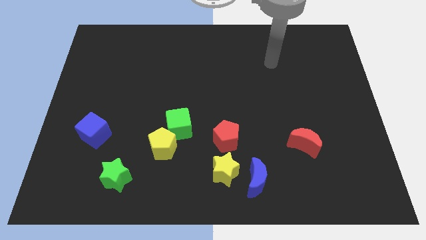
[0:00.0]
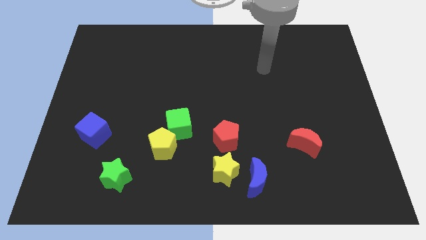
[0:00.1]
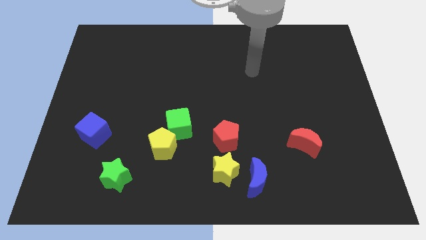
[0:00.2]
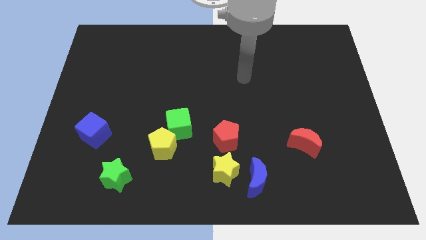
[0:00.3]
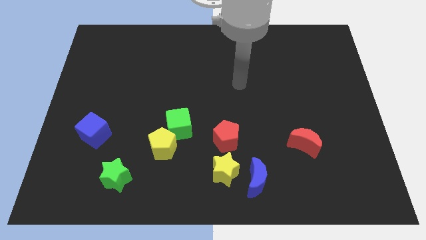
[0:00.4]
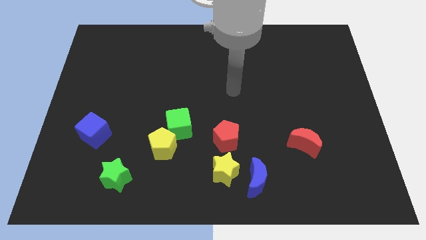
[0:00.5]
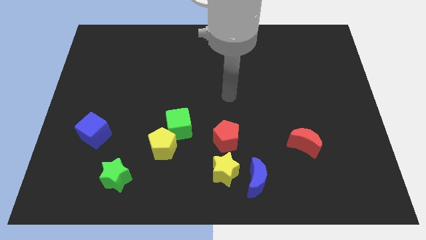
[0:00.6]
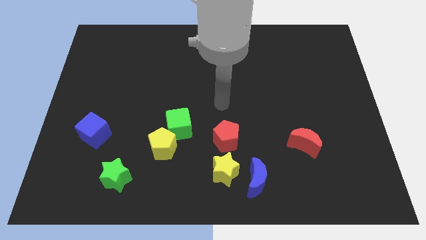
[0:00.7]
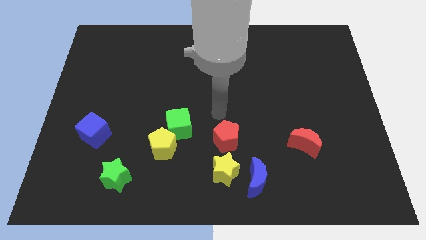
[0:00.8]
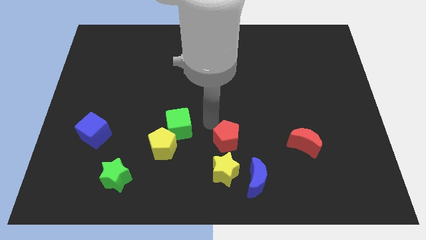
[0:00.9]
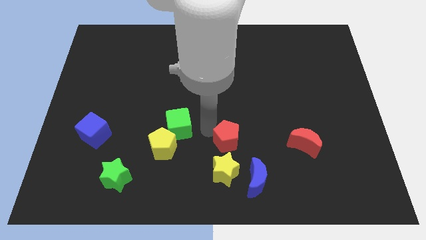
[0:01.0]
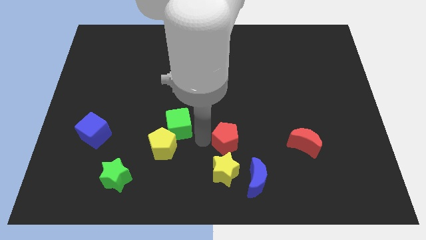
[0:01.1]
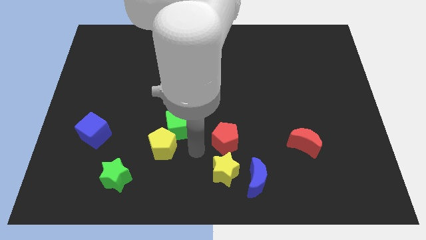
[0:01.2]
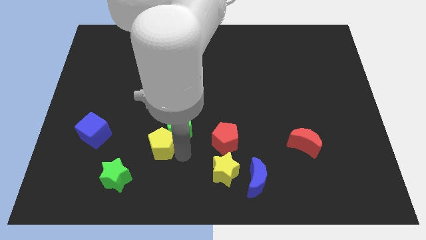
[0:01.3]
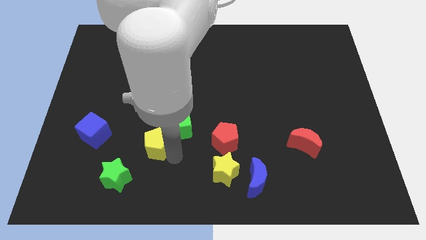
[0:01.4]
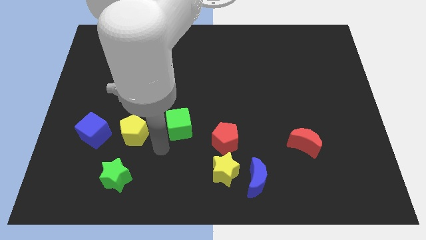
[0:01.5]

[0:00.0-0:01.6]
move the green cube away from the yellow pentagon

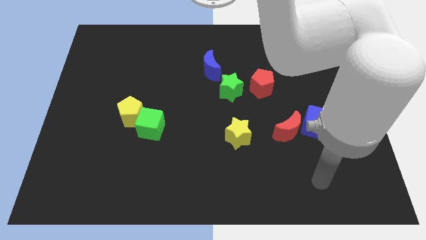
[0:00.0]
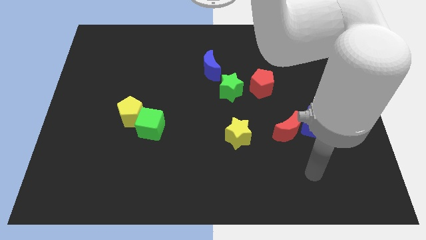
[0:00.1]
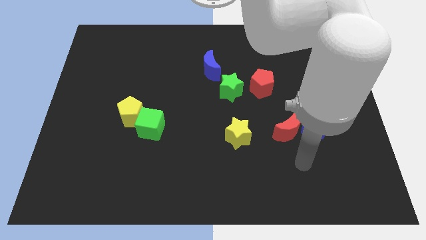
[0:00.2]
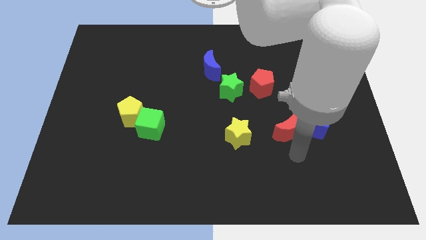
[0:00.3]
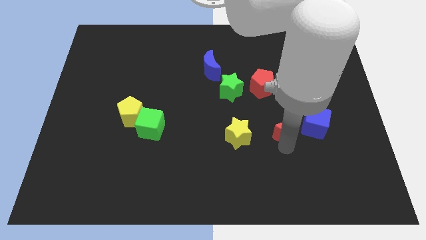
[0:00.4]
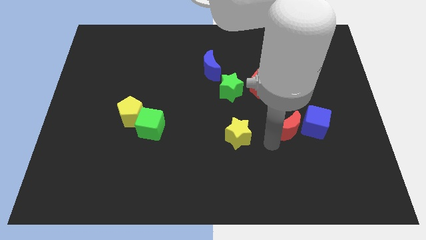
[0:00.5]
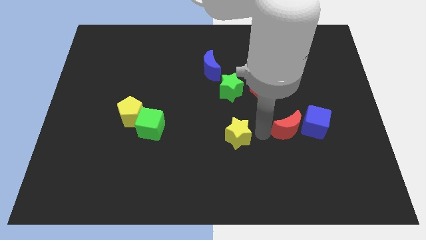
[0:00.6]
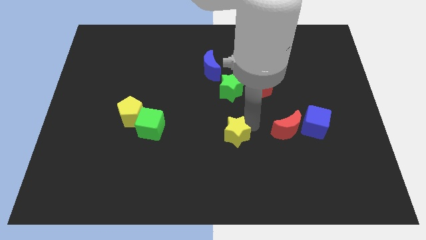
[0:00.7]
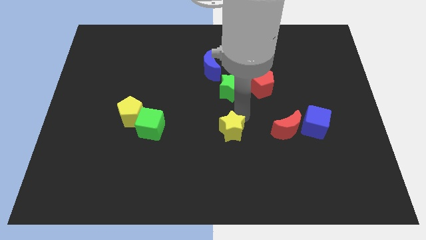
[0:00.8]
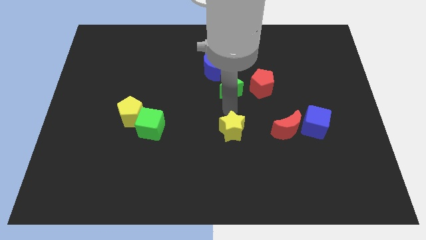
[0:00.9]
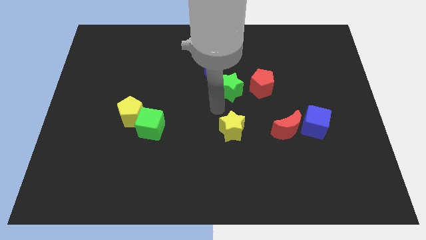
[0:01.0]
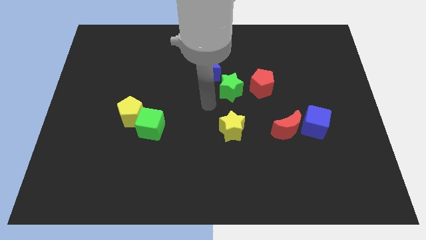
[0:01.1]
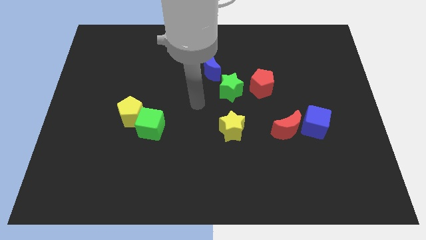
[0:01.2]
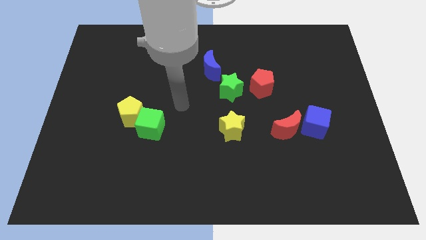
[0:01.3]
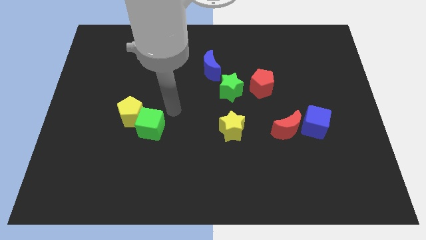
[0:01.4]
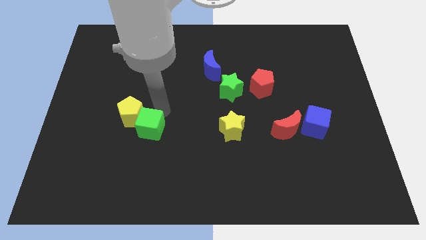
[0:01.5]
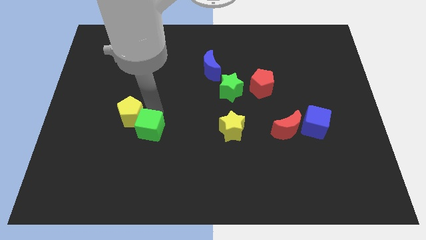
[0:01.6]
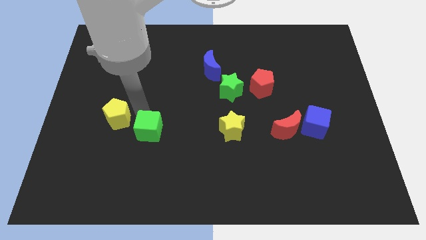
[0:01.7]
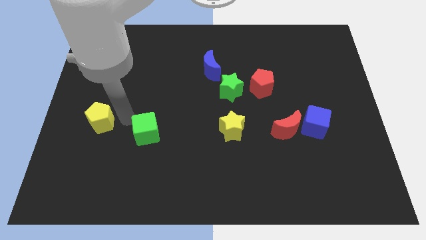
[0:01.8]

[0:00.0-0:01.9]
separate the green cube from the yellow pentagon

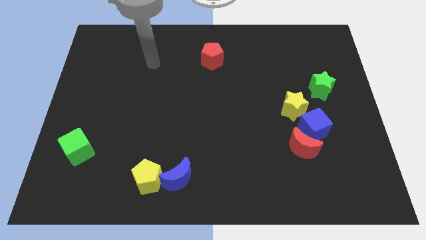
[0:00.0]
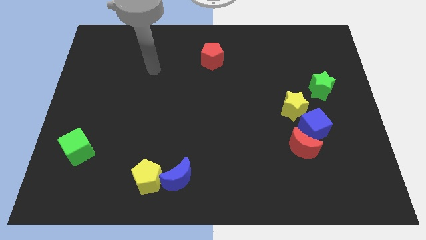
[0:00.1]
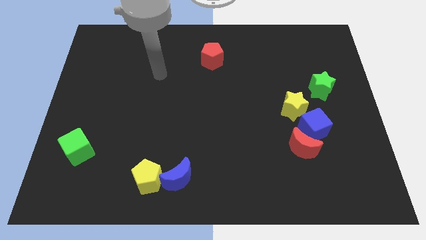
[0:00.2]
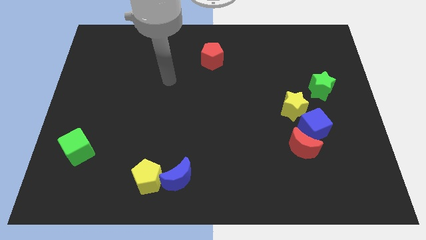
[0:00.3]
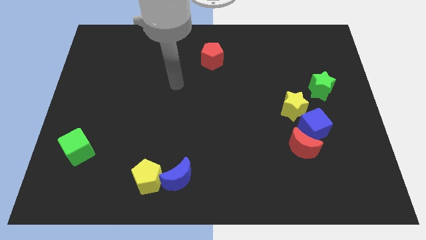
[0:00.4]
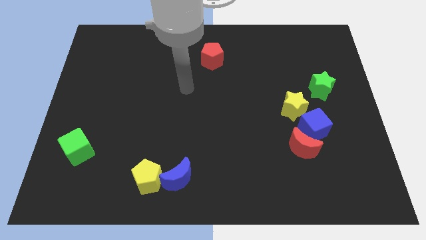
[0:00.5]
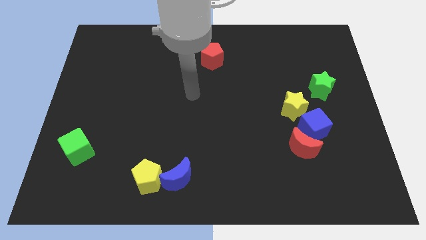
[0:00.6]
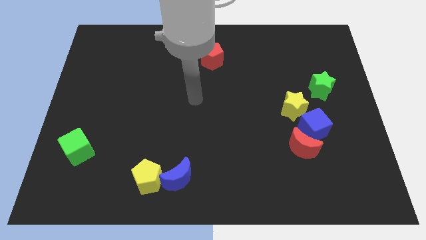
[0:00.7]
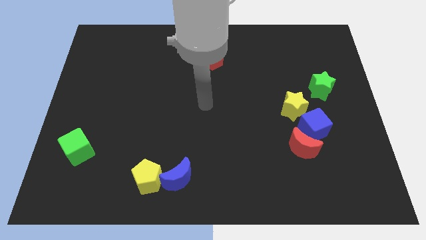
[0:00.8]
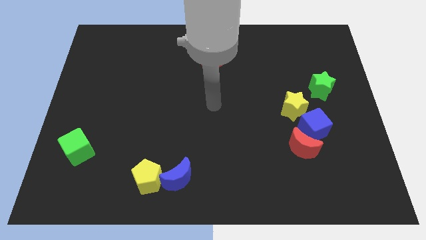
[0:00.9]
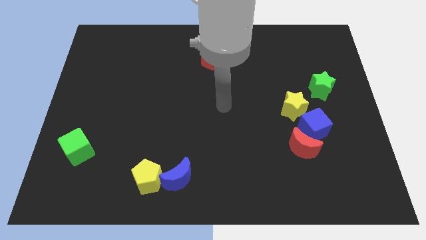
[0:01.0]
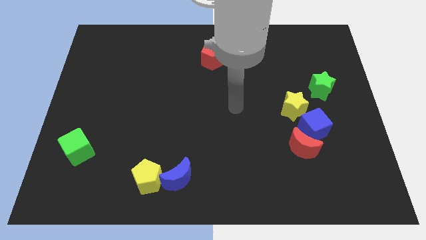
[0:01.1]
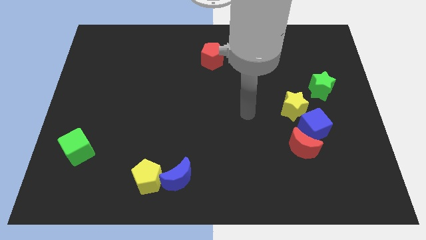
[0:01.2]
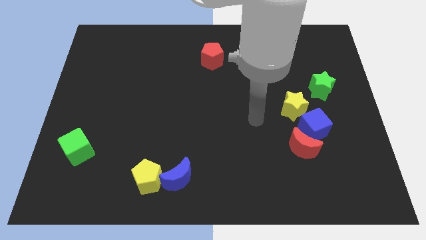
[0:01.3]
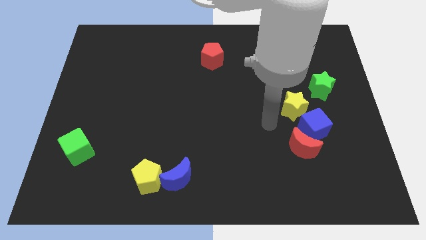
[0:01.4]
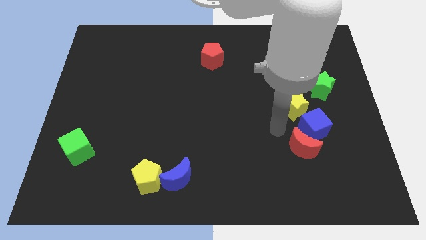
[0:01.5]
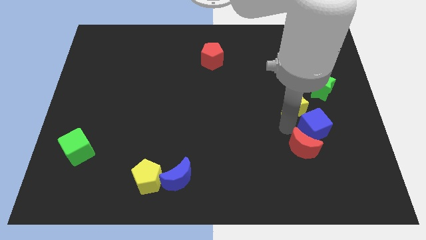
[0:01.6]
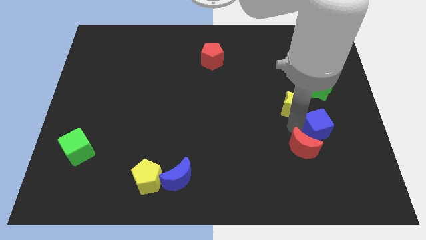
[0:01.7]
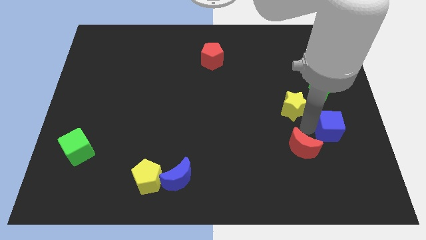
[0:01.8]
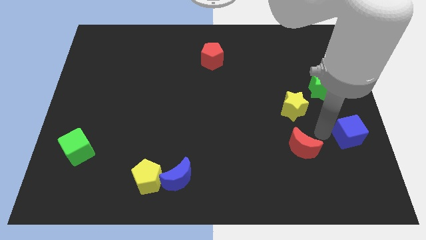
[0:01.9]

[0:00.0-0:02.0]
separate the red moon from the blue cube

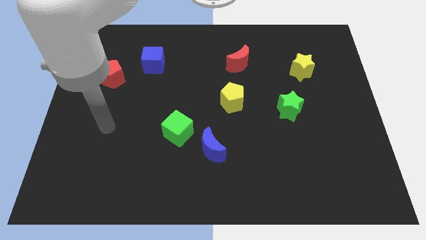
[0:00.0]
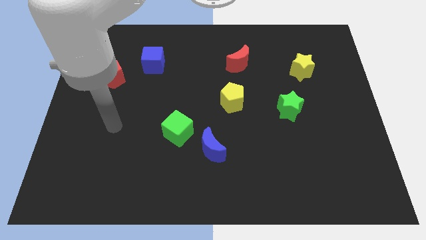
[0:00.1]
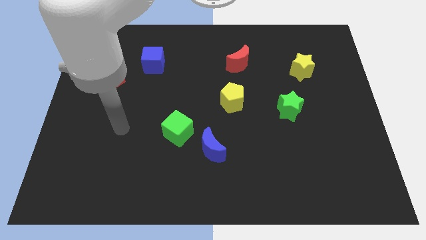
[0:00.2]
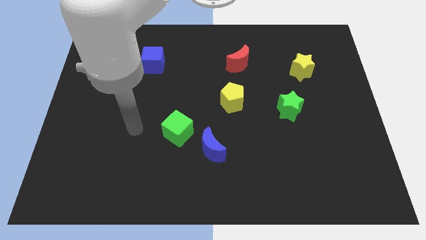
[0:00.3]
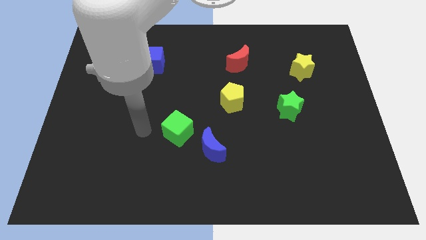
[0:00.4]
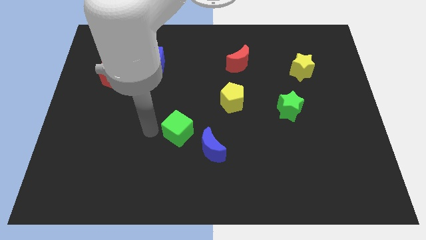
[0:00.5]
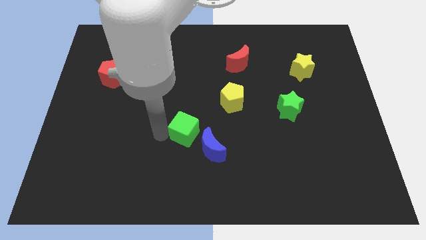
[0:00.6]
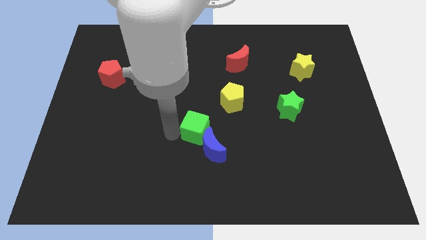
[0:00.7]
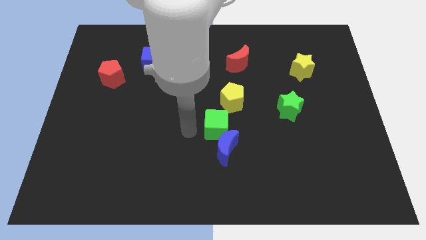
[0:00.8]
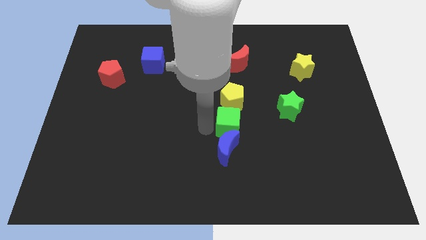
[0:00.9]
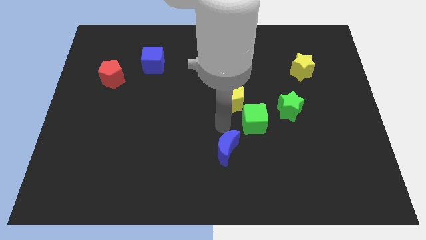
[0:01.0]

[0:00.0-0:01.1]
move the blue moon away from the green cube

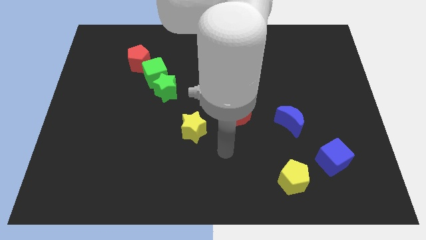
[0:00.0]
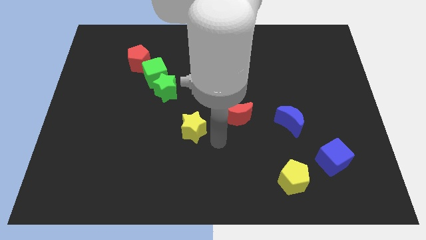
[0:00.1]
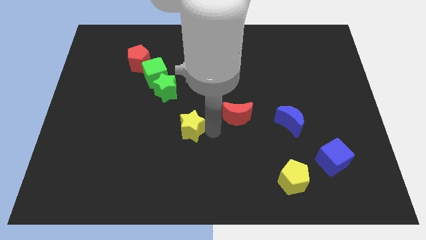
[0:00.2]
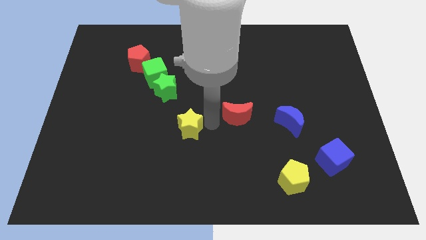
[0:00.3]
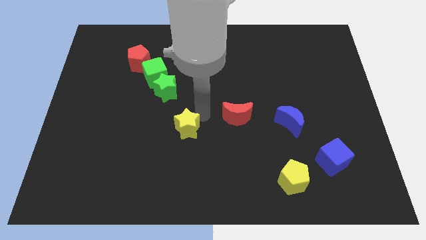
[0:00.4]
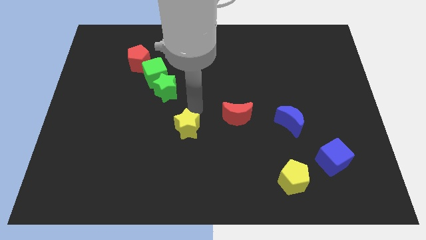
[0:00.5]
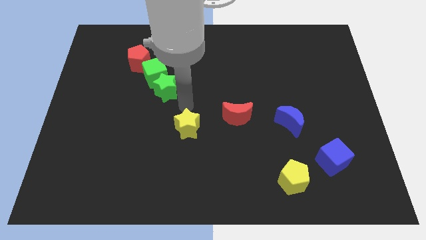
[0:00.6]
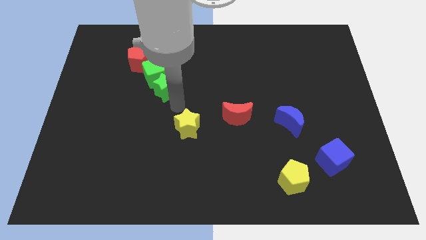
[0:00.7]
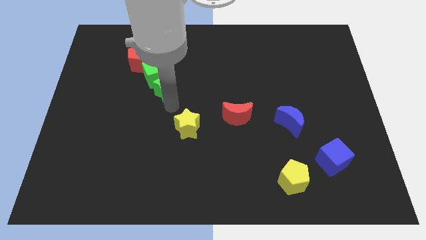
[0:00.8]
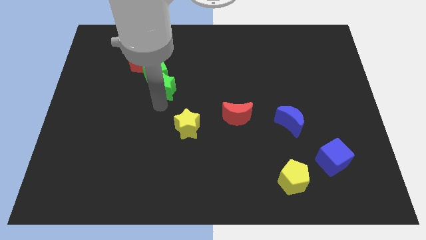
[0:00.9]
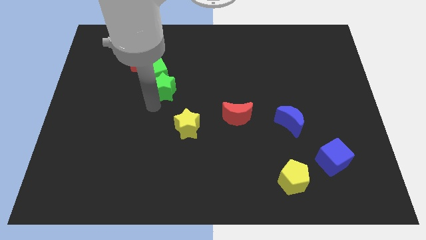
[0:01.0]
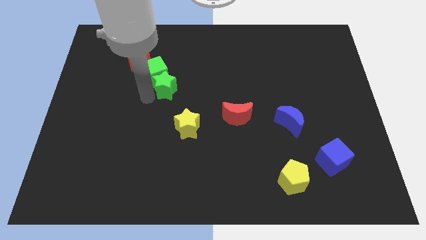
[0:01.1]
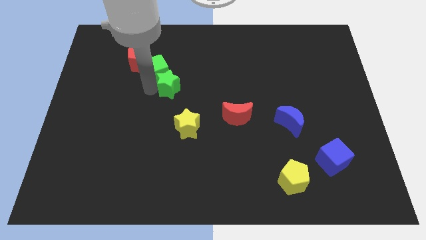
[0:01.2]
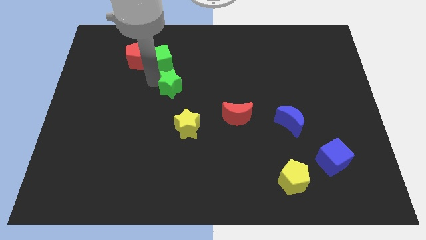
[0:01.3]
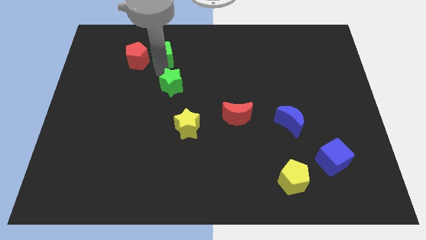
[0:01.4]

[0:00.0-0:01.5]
pull the green star apart from the green cube

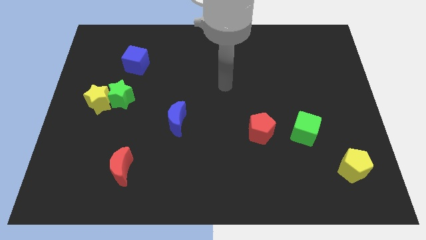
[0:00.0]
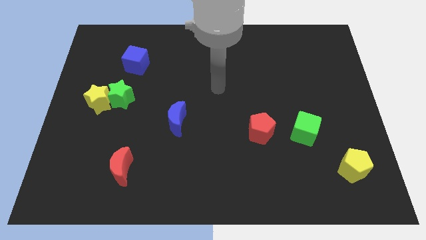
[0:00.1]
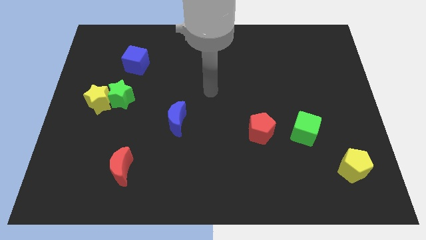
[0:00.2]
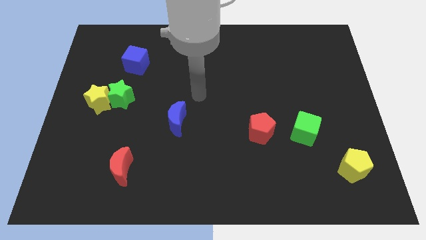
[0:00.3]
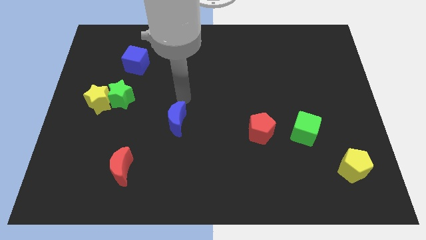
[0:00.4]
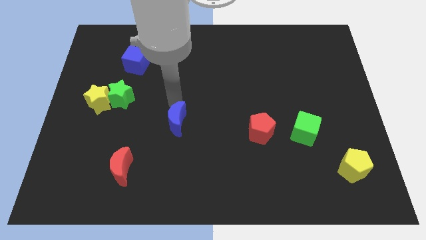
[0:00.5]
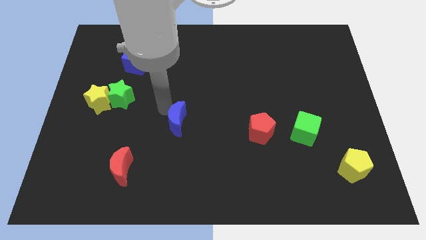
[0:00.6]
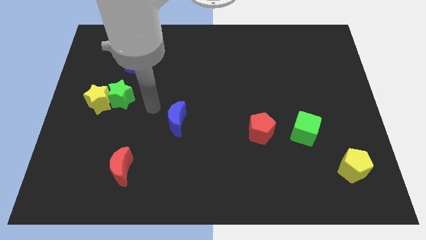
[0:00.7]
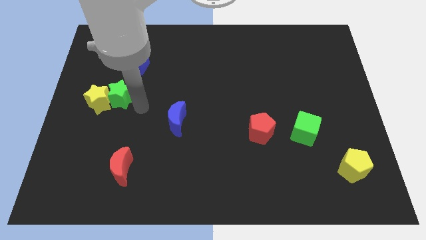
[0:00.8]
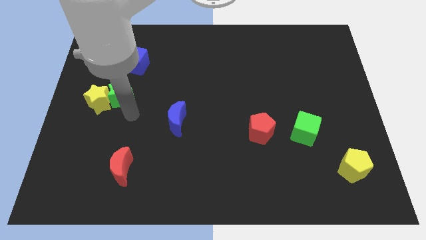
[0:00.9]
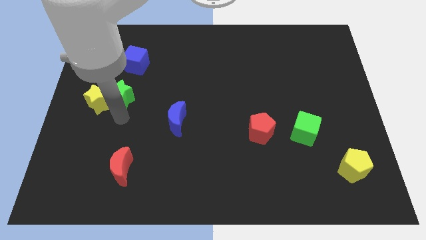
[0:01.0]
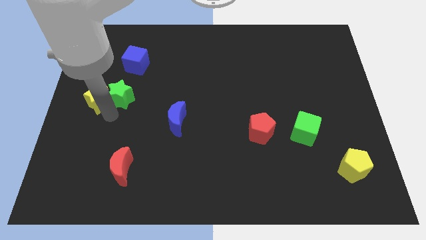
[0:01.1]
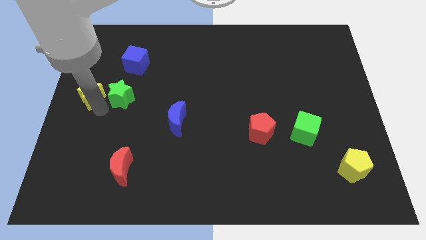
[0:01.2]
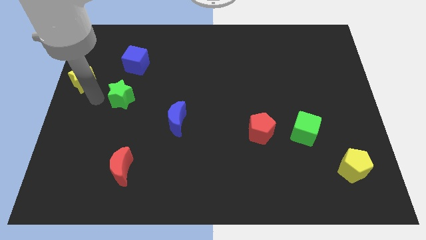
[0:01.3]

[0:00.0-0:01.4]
separate the green star from the yellow star
